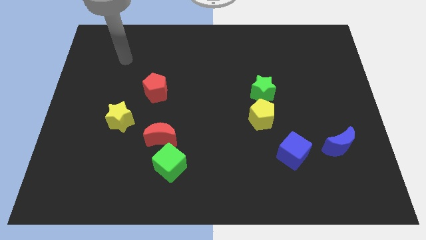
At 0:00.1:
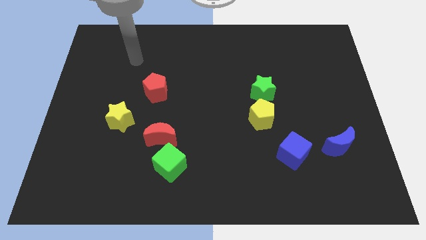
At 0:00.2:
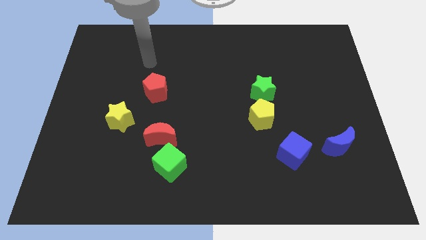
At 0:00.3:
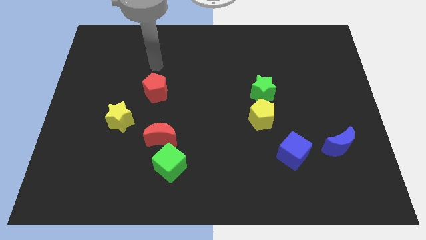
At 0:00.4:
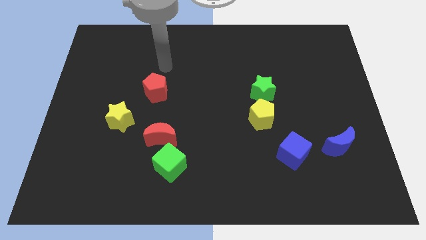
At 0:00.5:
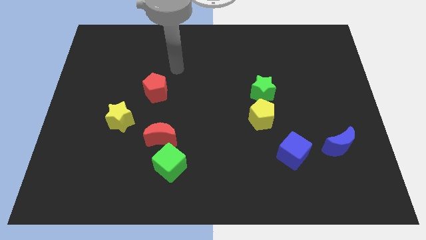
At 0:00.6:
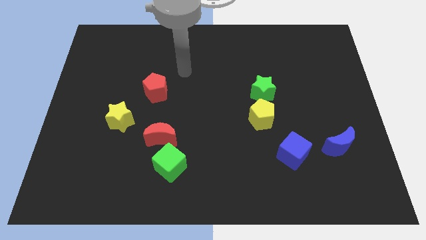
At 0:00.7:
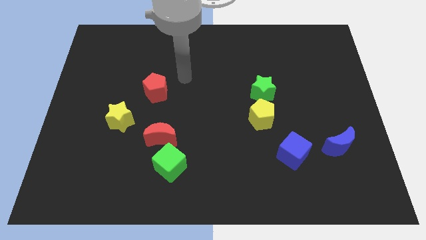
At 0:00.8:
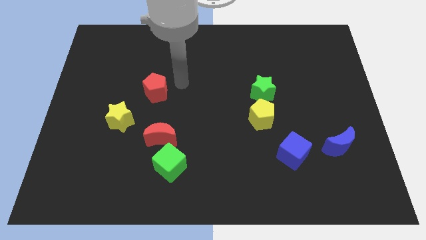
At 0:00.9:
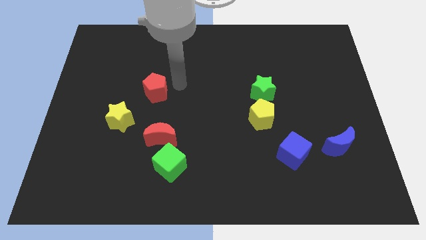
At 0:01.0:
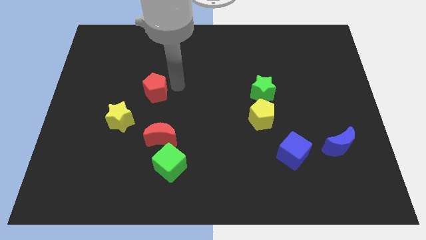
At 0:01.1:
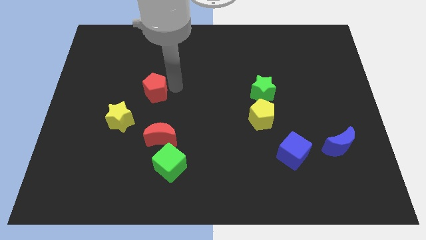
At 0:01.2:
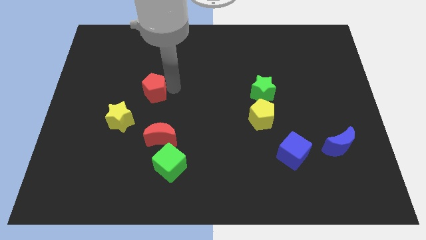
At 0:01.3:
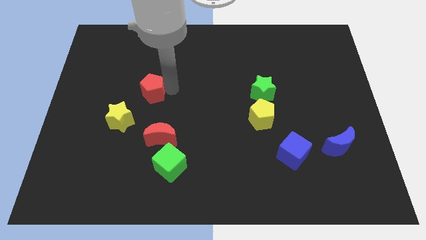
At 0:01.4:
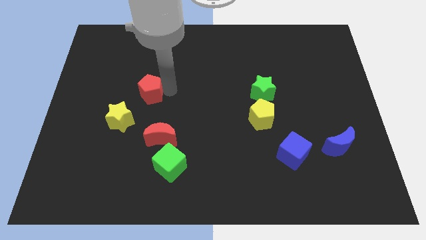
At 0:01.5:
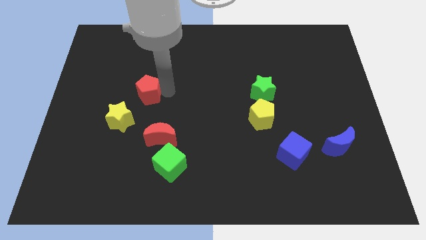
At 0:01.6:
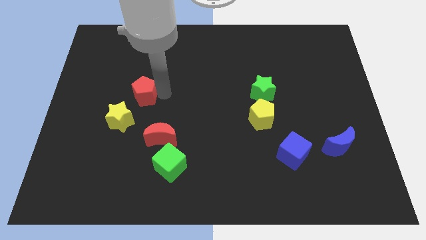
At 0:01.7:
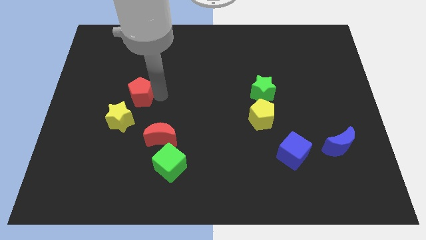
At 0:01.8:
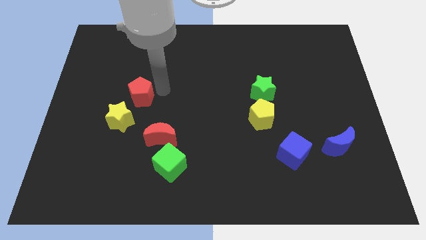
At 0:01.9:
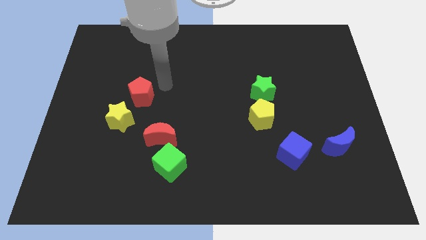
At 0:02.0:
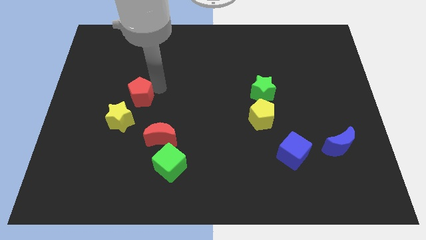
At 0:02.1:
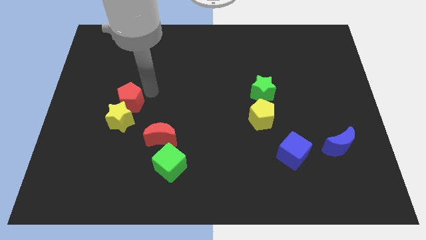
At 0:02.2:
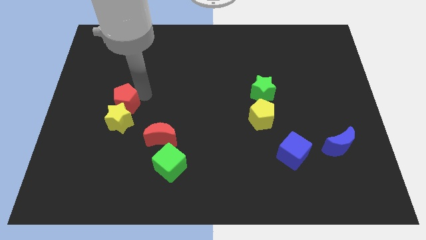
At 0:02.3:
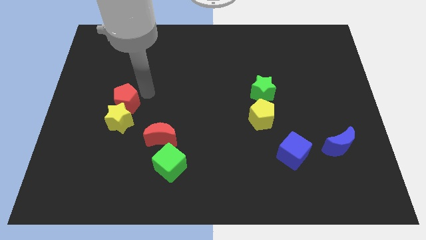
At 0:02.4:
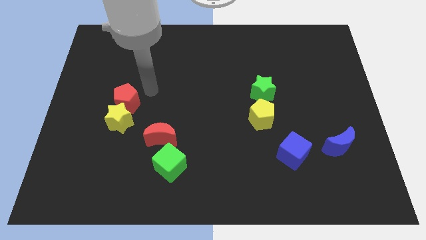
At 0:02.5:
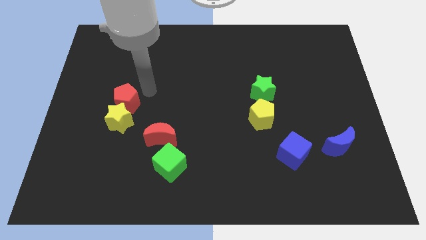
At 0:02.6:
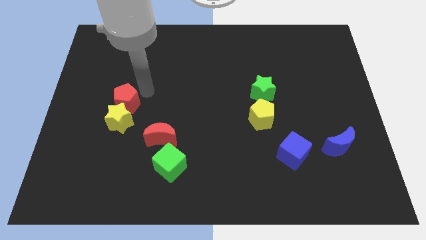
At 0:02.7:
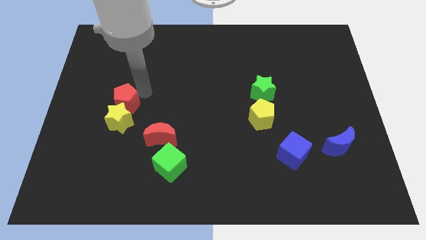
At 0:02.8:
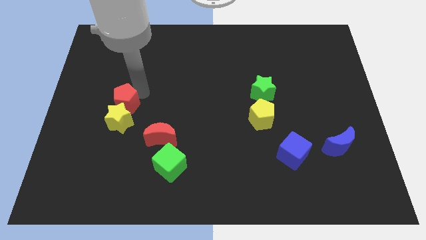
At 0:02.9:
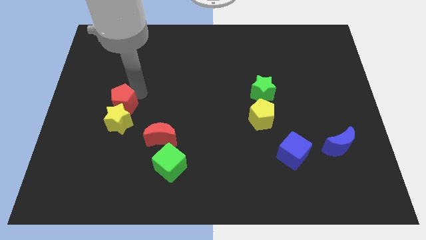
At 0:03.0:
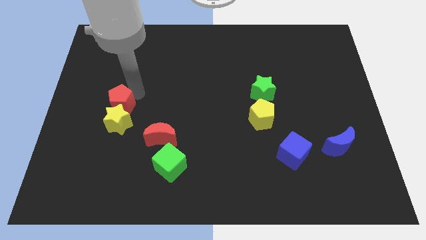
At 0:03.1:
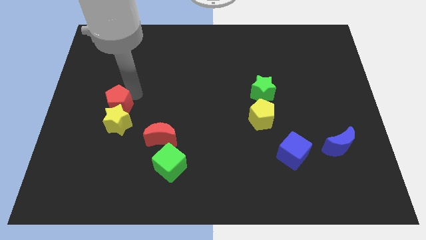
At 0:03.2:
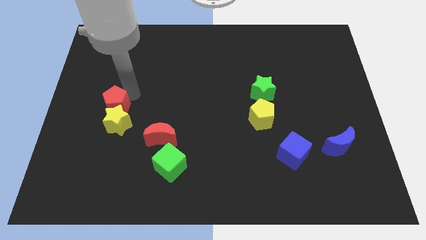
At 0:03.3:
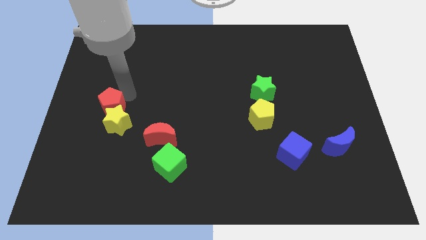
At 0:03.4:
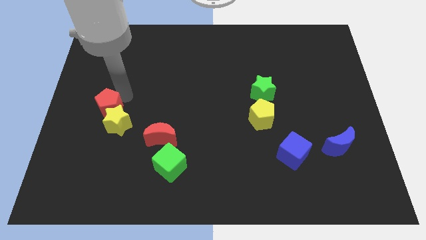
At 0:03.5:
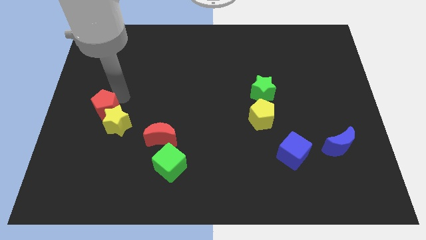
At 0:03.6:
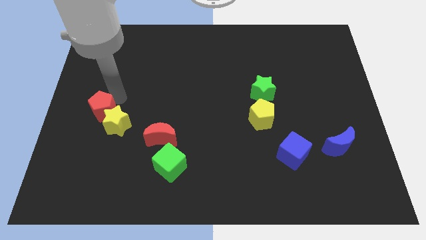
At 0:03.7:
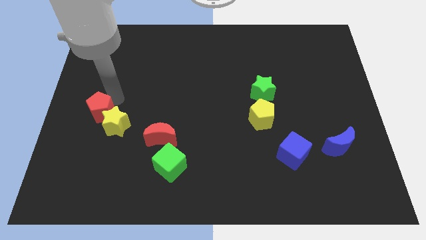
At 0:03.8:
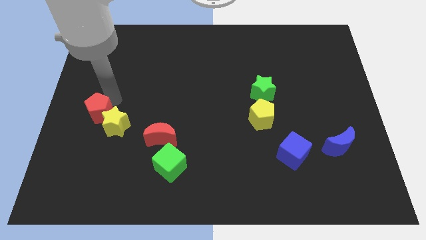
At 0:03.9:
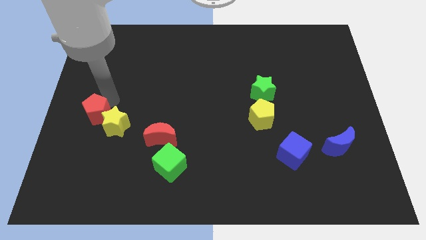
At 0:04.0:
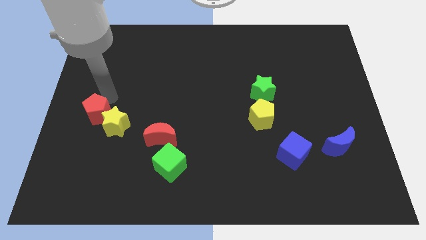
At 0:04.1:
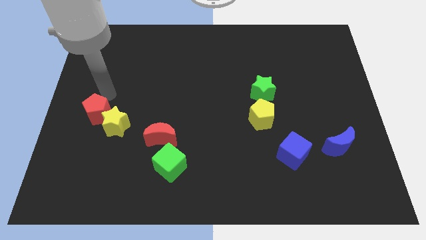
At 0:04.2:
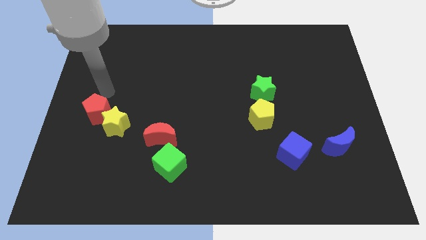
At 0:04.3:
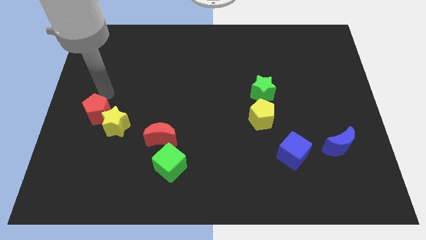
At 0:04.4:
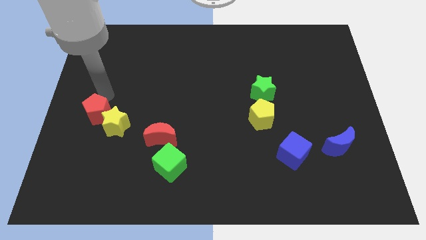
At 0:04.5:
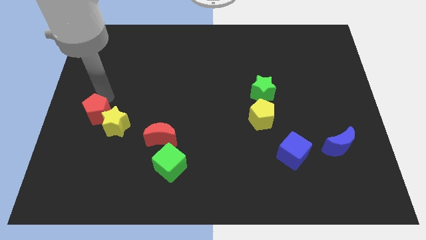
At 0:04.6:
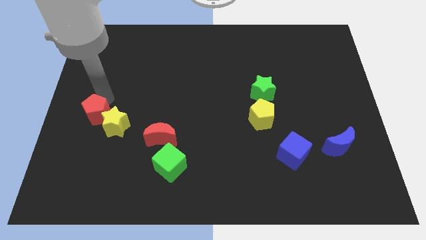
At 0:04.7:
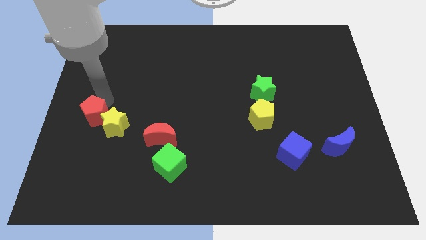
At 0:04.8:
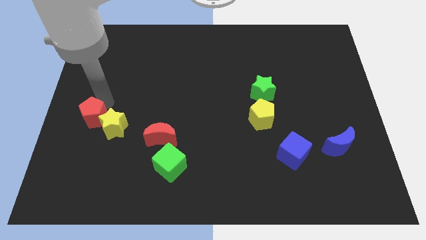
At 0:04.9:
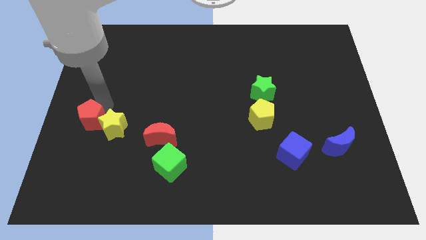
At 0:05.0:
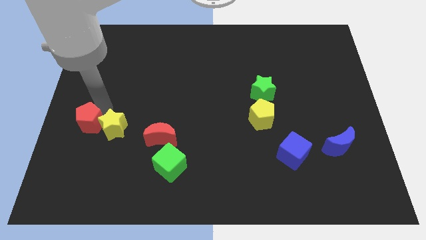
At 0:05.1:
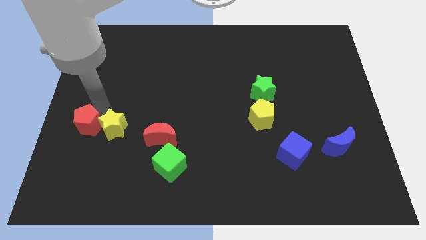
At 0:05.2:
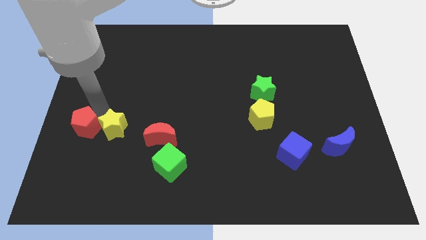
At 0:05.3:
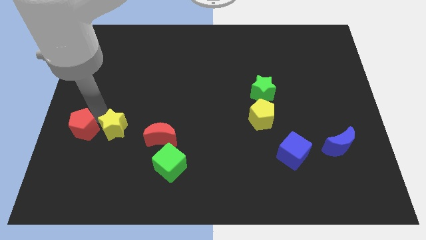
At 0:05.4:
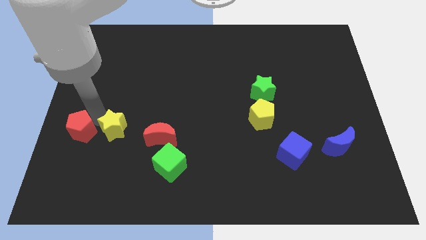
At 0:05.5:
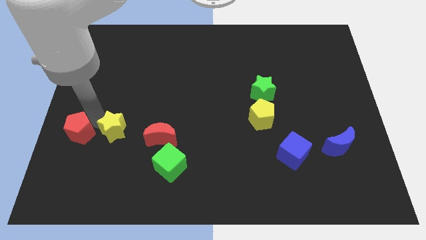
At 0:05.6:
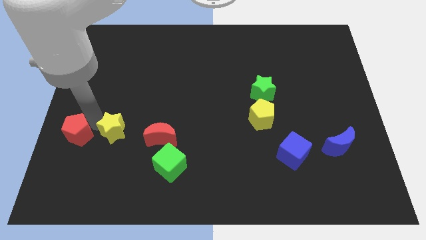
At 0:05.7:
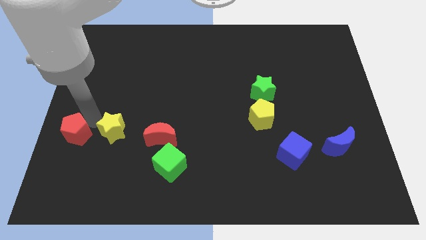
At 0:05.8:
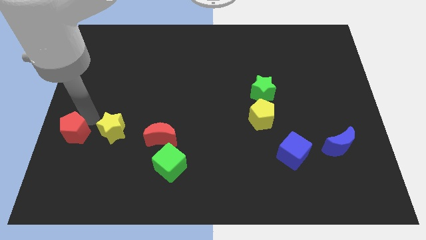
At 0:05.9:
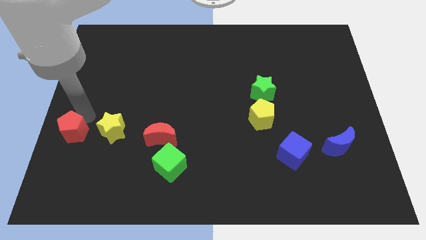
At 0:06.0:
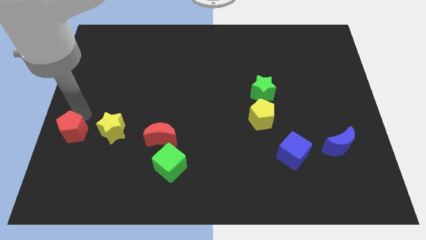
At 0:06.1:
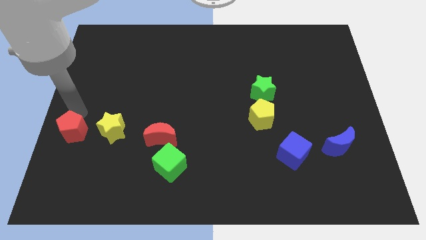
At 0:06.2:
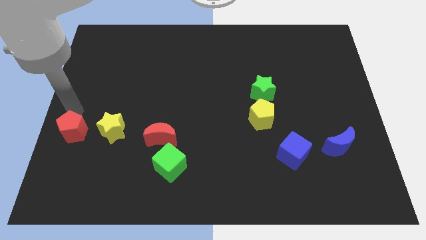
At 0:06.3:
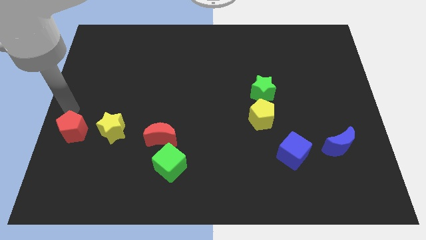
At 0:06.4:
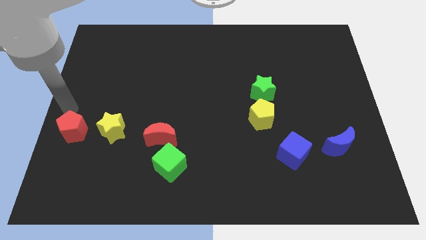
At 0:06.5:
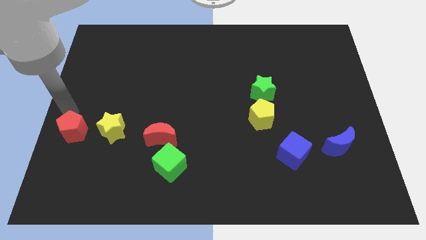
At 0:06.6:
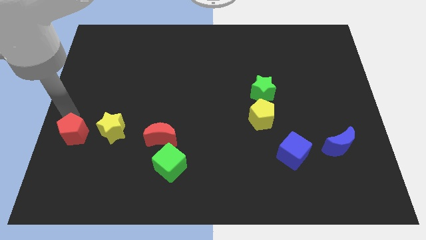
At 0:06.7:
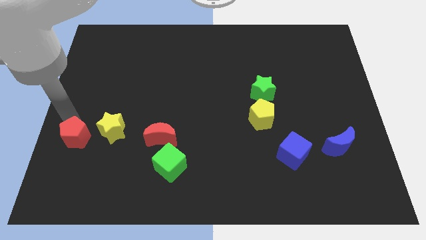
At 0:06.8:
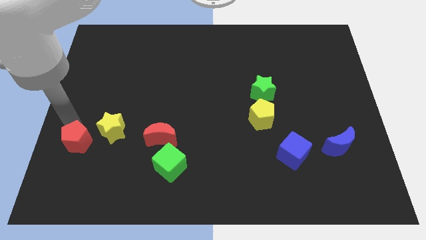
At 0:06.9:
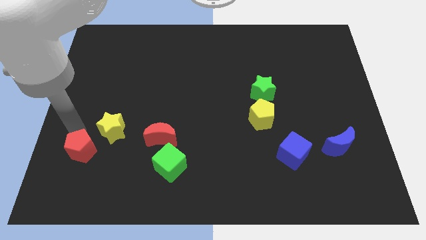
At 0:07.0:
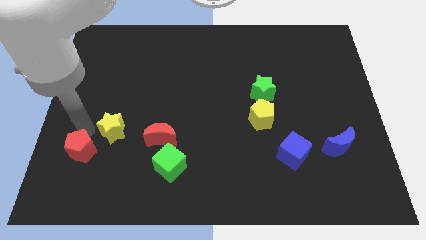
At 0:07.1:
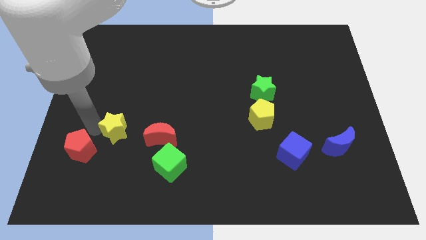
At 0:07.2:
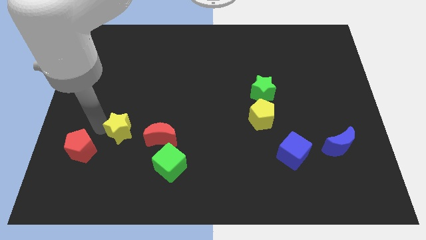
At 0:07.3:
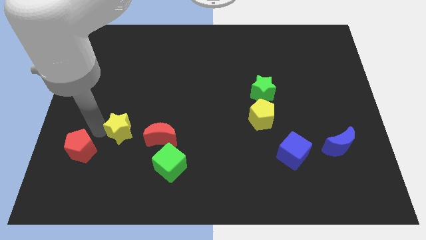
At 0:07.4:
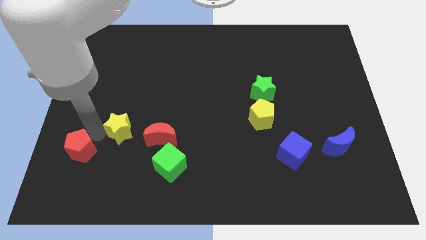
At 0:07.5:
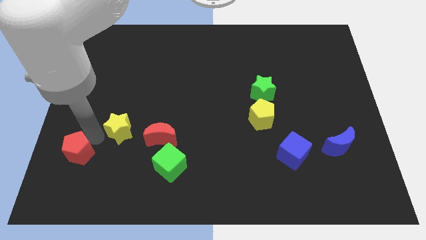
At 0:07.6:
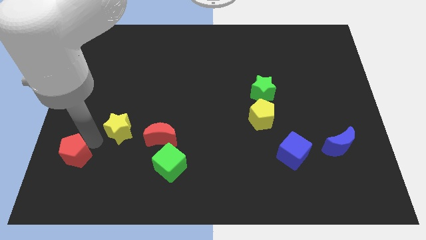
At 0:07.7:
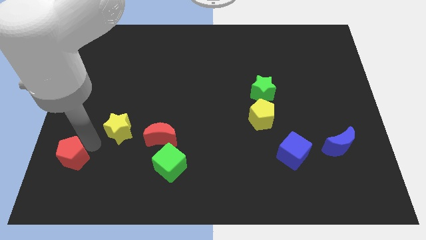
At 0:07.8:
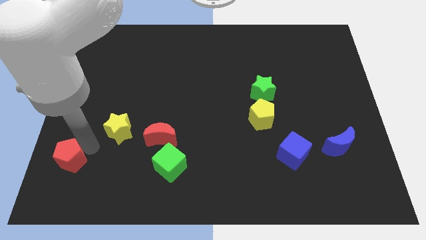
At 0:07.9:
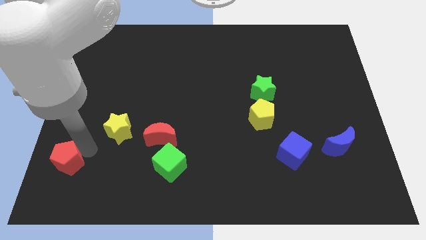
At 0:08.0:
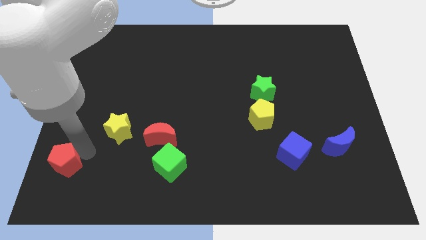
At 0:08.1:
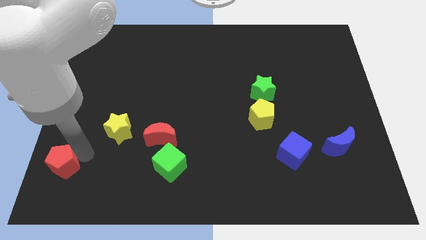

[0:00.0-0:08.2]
push the red pentagon to the bottom left of the board
